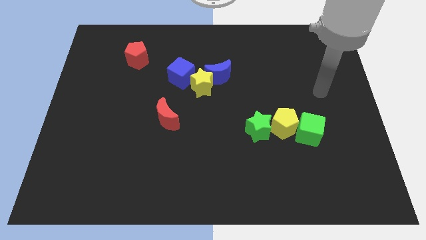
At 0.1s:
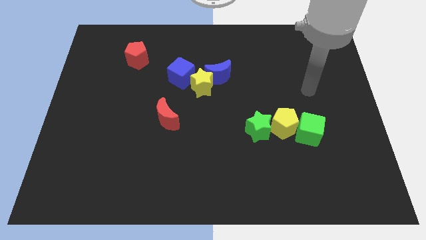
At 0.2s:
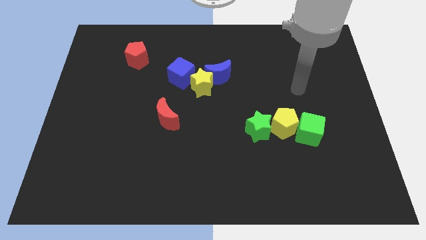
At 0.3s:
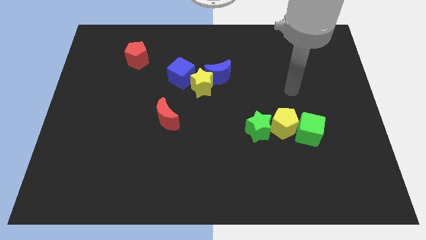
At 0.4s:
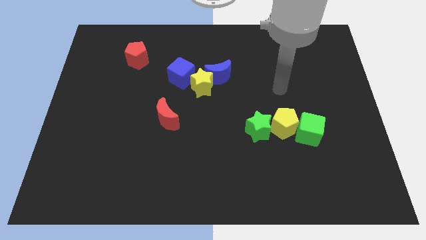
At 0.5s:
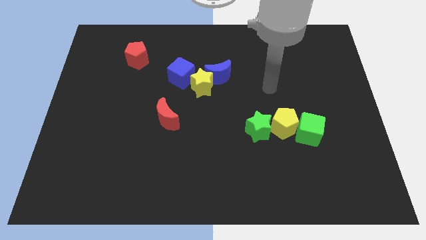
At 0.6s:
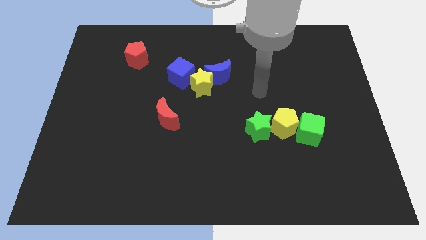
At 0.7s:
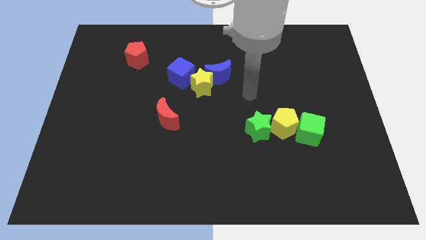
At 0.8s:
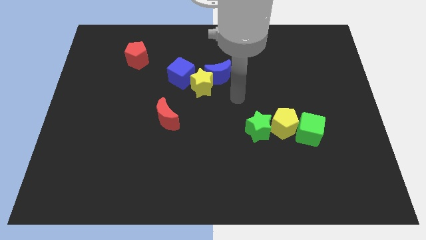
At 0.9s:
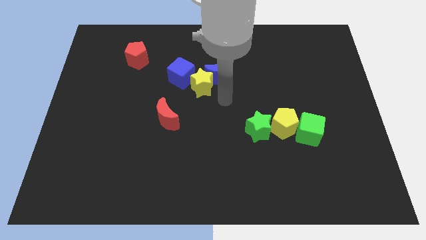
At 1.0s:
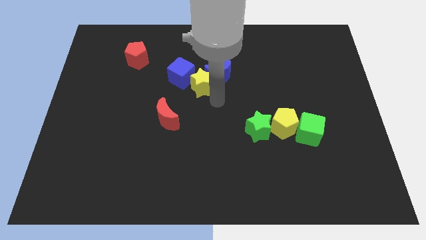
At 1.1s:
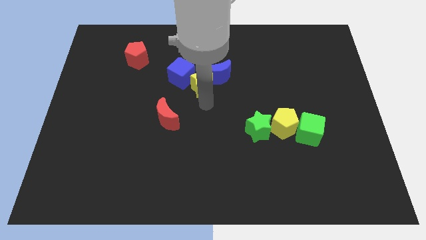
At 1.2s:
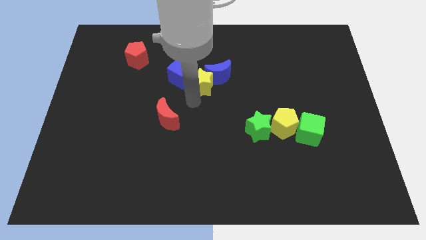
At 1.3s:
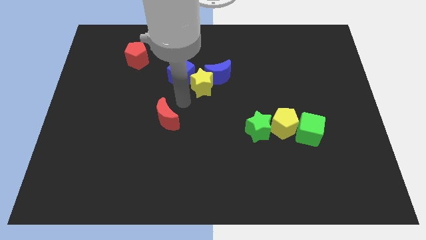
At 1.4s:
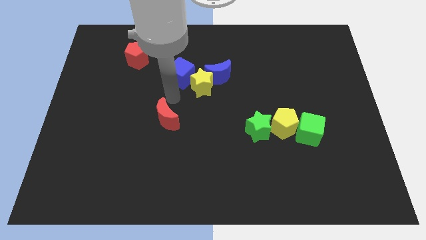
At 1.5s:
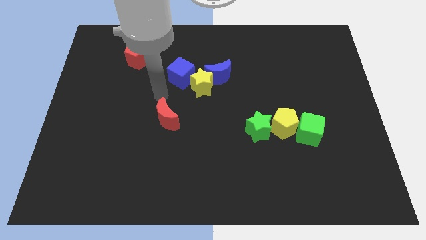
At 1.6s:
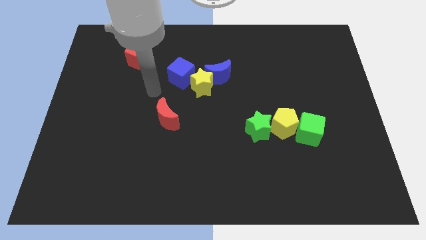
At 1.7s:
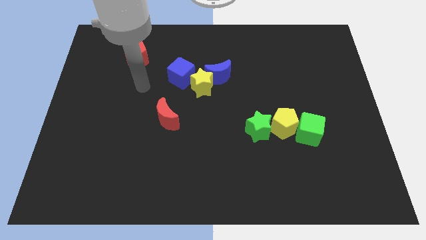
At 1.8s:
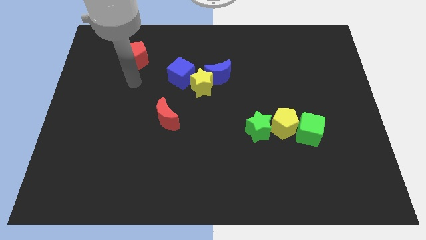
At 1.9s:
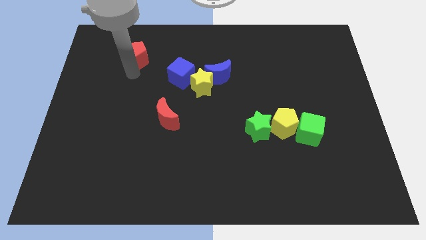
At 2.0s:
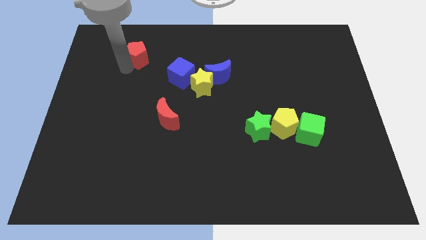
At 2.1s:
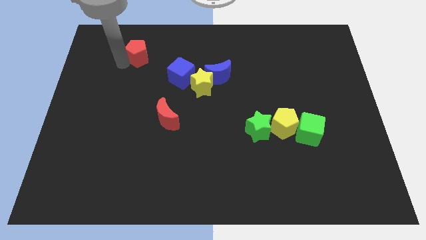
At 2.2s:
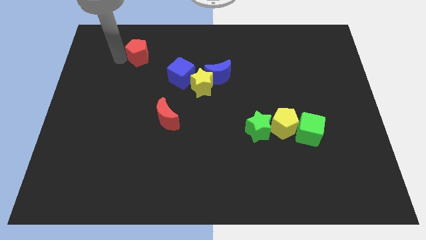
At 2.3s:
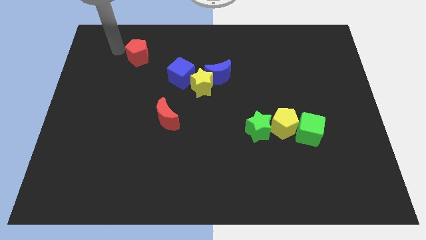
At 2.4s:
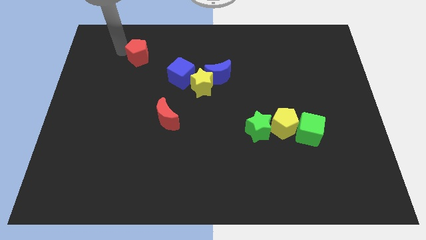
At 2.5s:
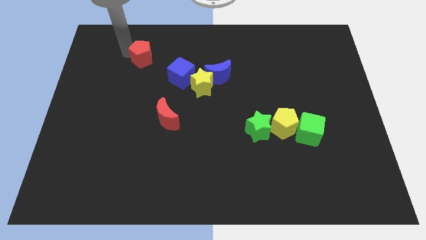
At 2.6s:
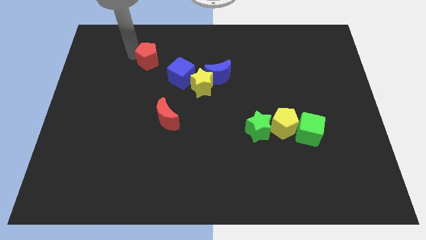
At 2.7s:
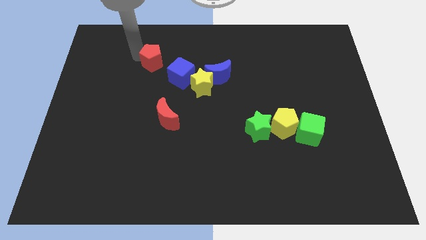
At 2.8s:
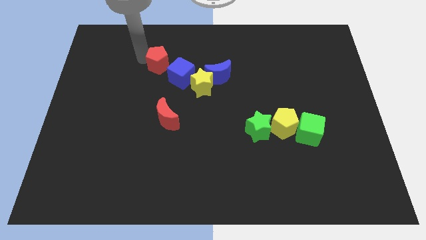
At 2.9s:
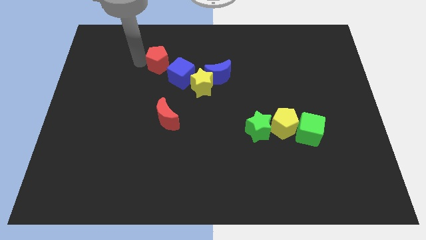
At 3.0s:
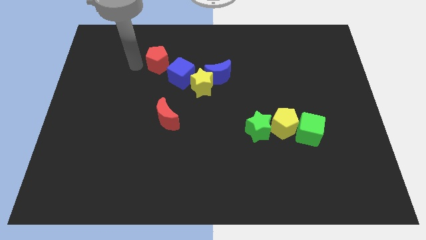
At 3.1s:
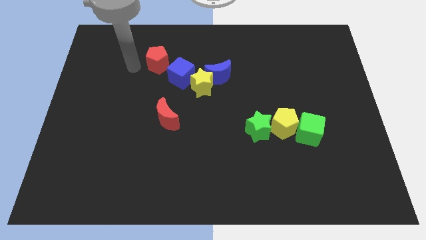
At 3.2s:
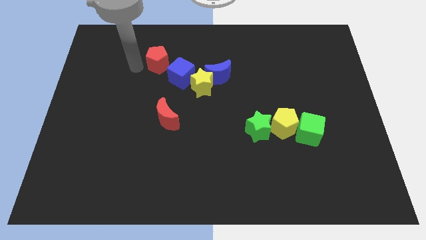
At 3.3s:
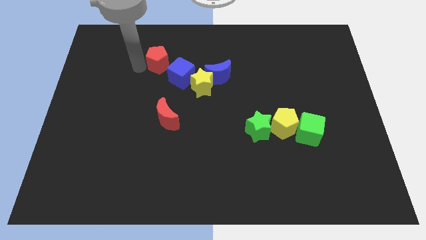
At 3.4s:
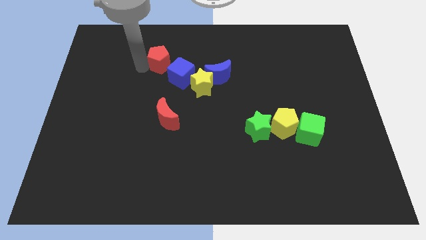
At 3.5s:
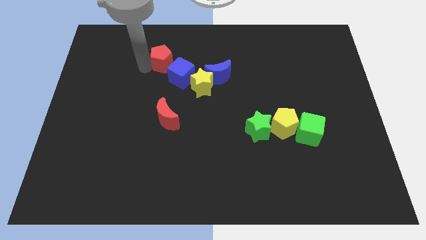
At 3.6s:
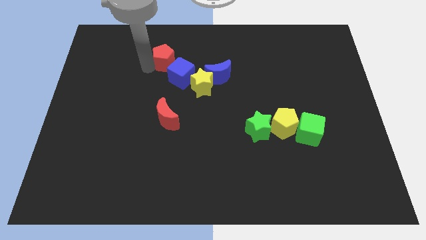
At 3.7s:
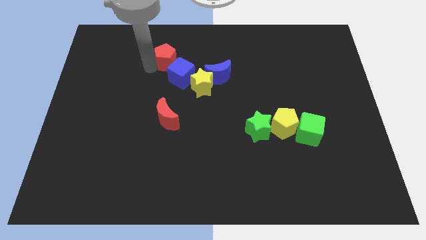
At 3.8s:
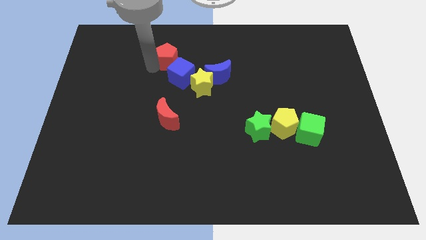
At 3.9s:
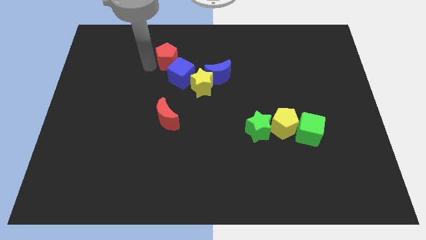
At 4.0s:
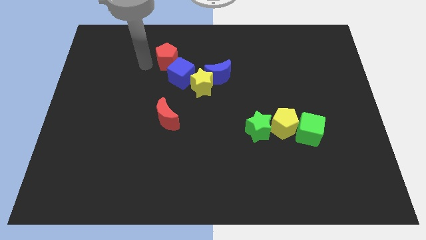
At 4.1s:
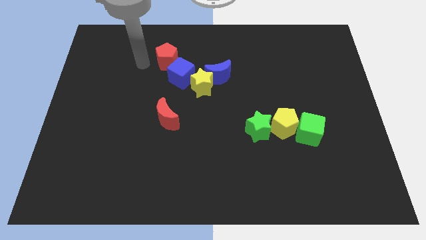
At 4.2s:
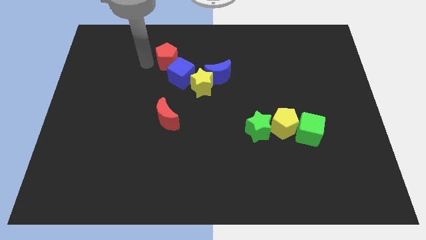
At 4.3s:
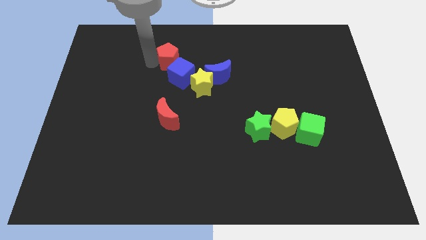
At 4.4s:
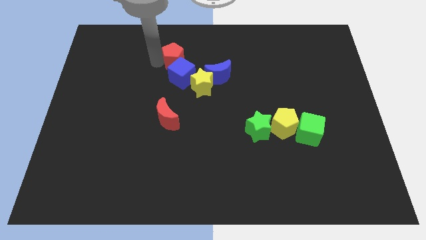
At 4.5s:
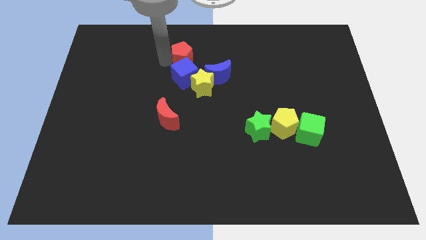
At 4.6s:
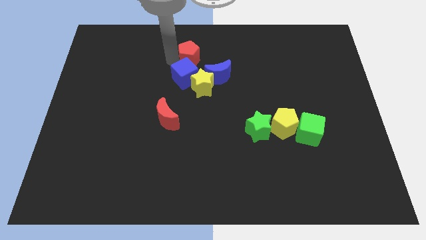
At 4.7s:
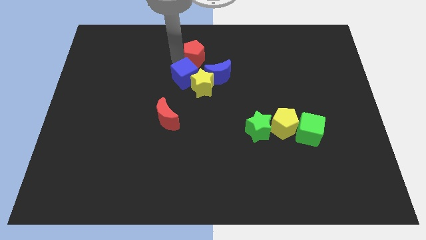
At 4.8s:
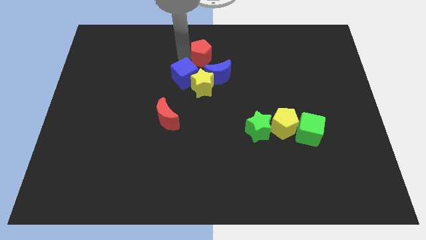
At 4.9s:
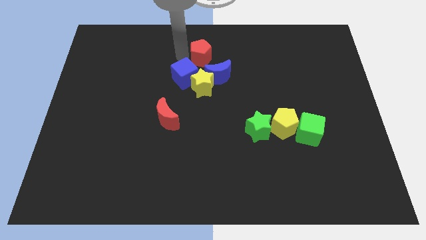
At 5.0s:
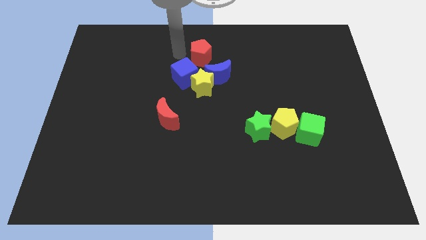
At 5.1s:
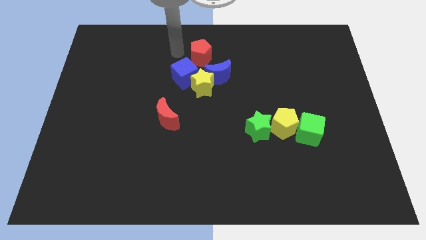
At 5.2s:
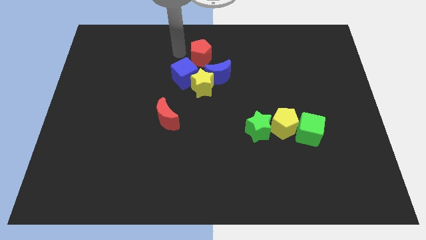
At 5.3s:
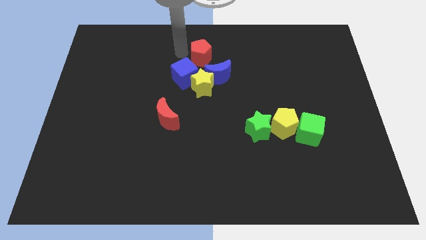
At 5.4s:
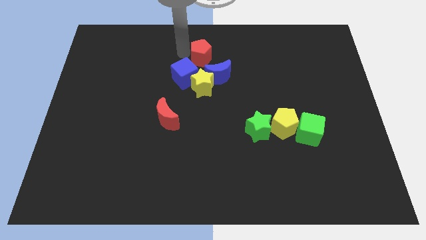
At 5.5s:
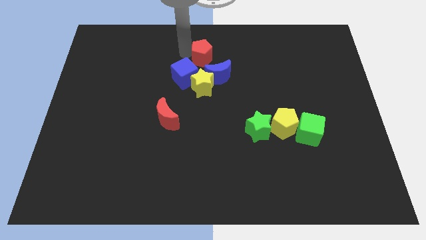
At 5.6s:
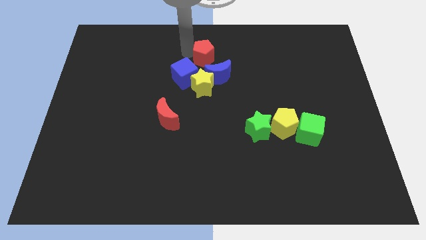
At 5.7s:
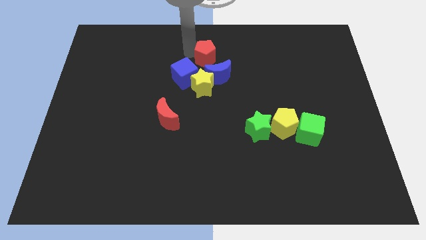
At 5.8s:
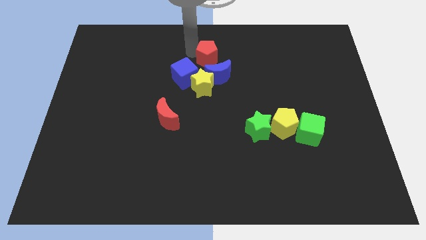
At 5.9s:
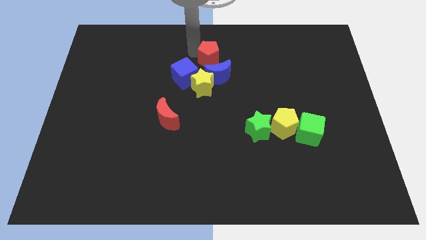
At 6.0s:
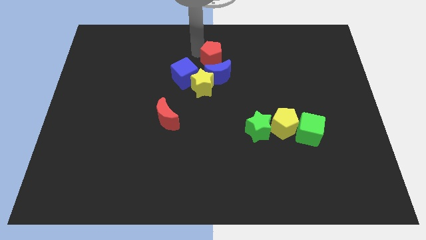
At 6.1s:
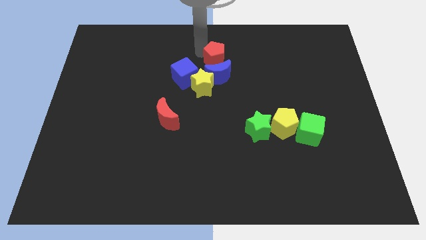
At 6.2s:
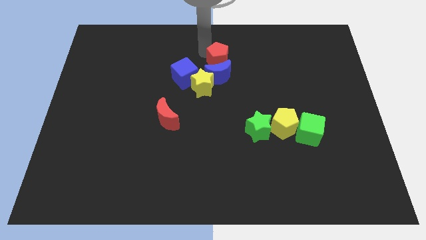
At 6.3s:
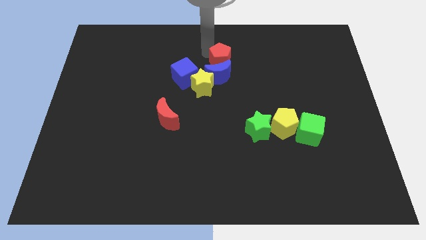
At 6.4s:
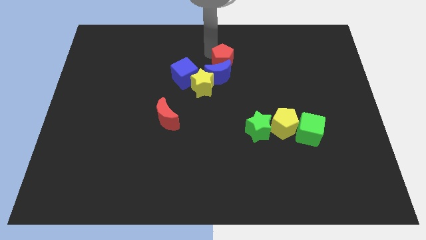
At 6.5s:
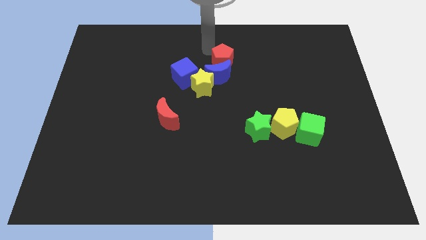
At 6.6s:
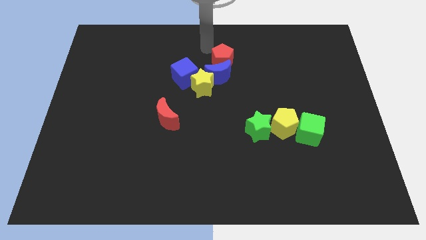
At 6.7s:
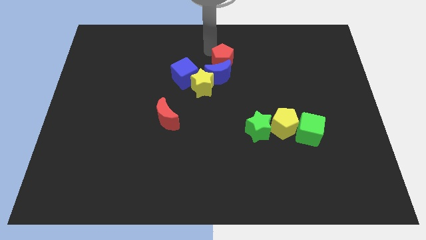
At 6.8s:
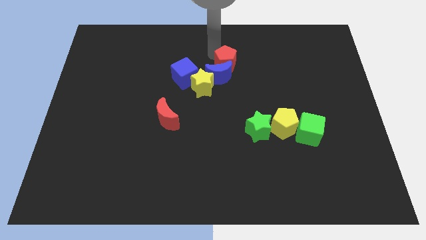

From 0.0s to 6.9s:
move the red pentagon just right of the blue cube
